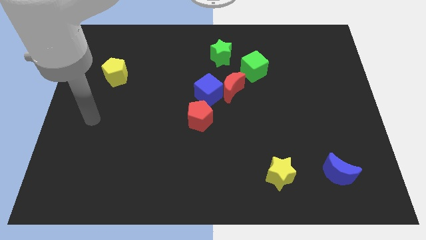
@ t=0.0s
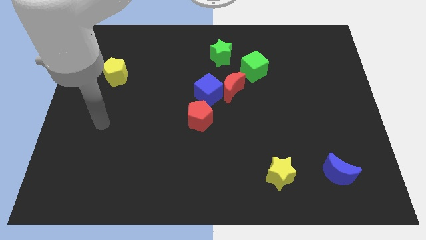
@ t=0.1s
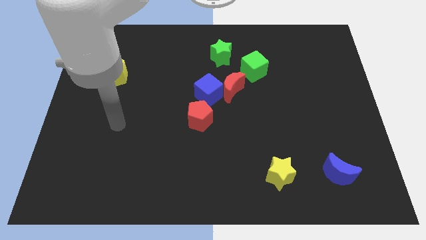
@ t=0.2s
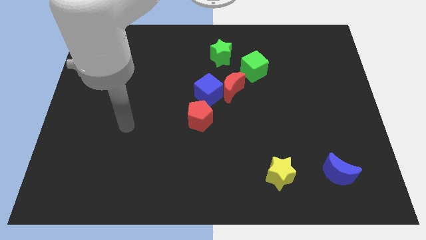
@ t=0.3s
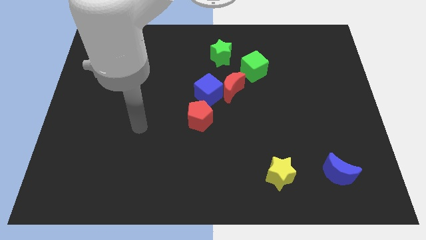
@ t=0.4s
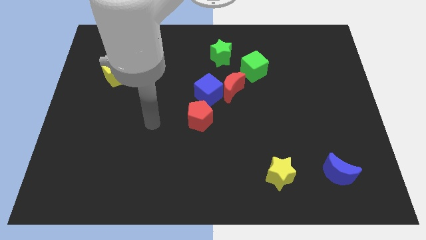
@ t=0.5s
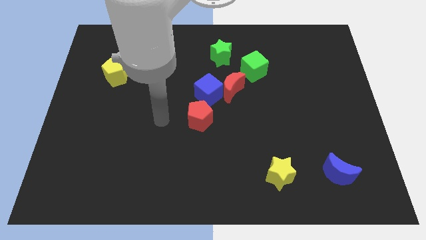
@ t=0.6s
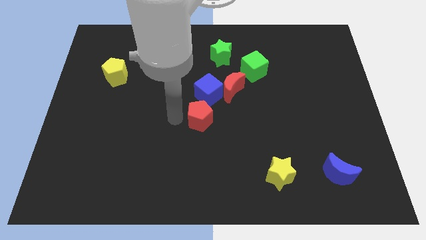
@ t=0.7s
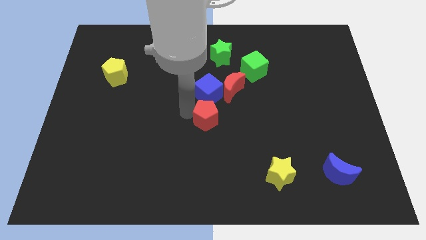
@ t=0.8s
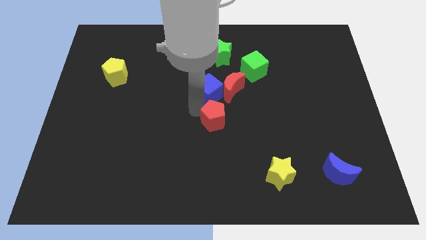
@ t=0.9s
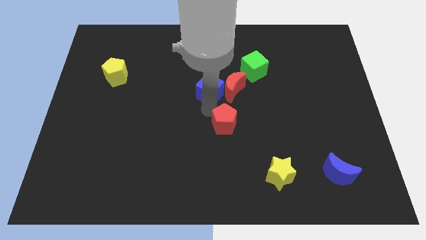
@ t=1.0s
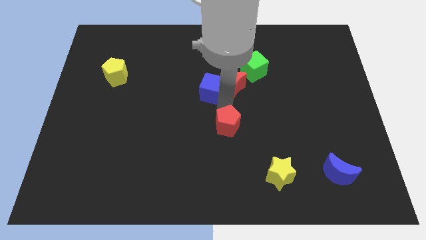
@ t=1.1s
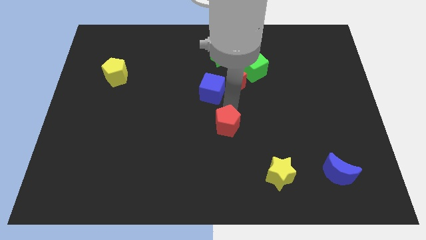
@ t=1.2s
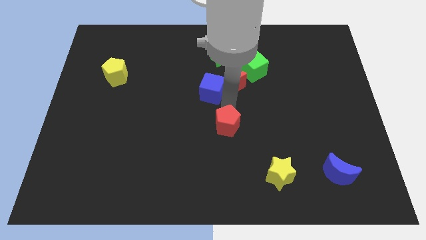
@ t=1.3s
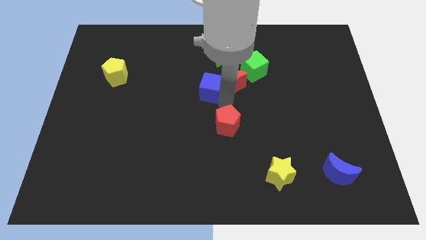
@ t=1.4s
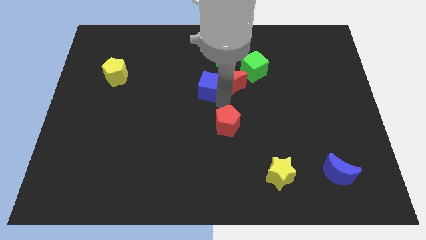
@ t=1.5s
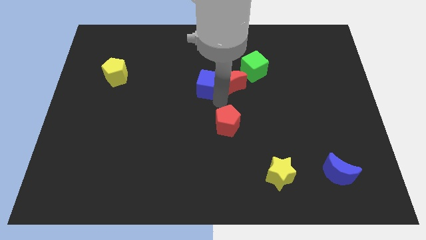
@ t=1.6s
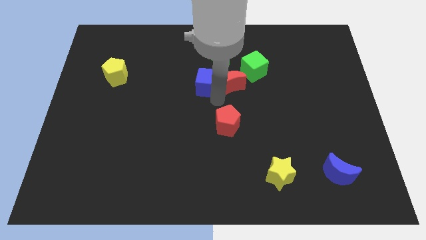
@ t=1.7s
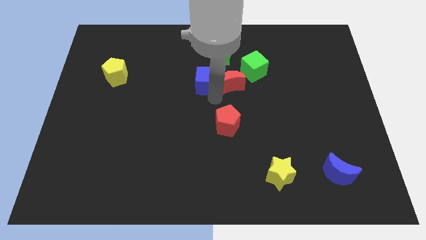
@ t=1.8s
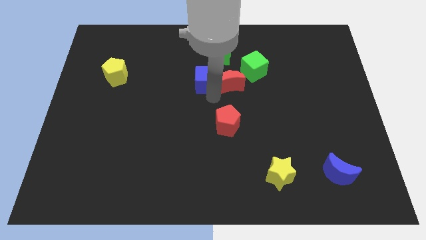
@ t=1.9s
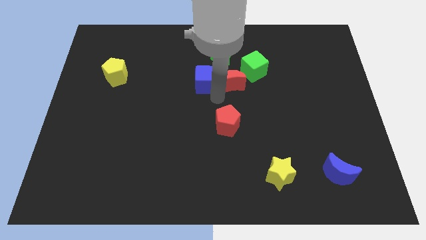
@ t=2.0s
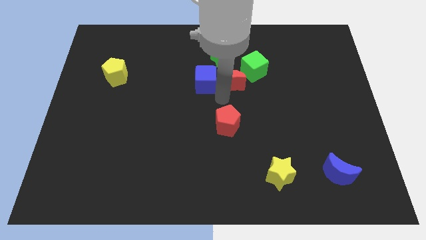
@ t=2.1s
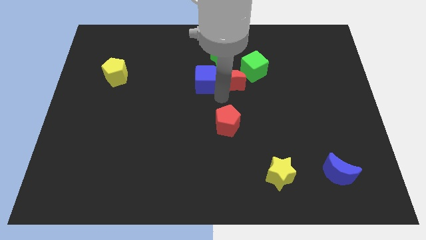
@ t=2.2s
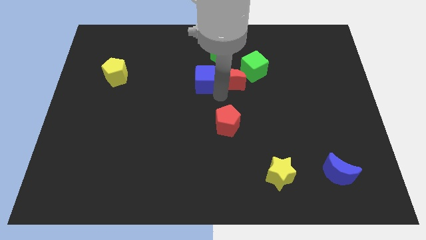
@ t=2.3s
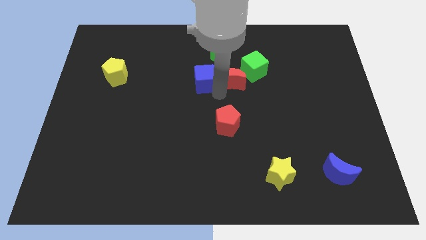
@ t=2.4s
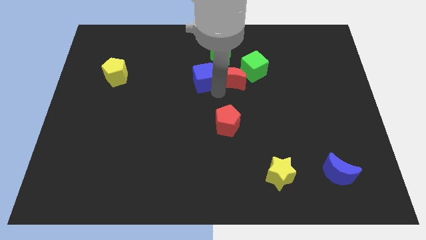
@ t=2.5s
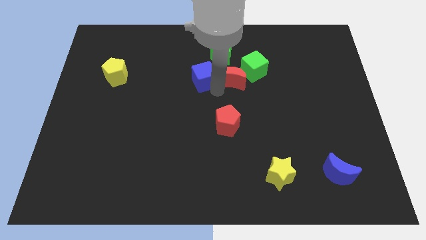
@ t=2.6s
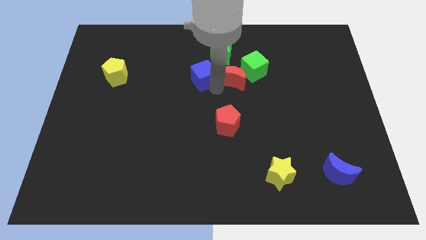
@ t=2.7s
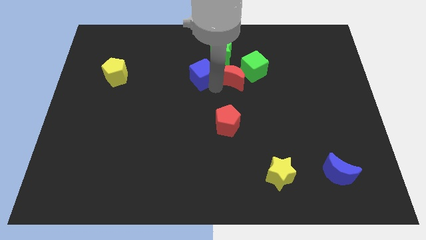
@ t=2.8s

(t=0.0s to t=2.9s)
move the blue cube away from the red moon and red pentagon

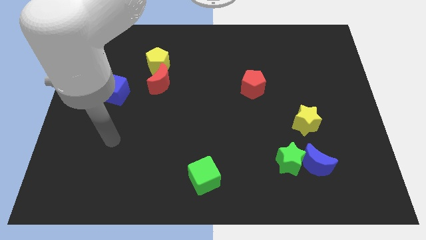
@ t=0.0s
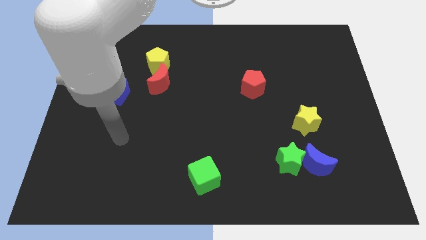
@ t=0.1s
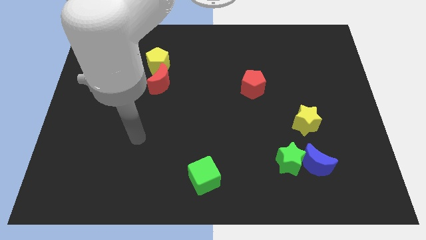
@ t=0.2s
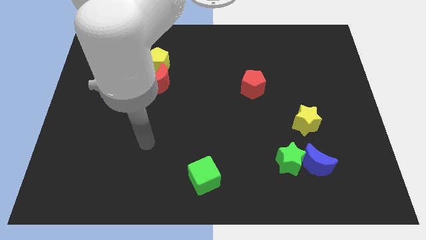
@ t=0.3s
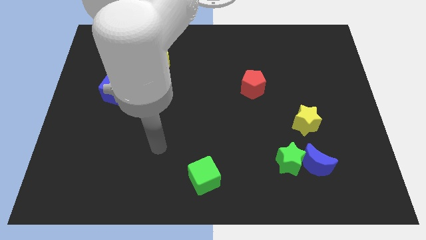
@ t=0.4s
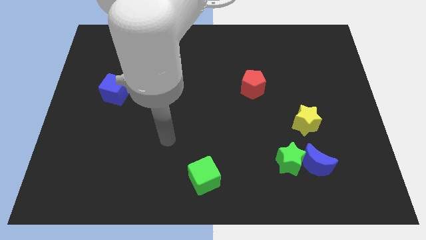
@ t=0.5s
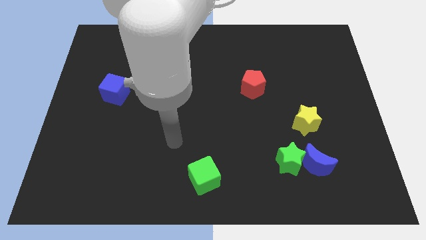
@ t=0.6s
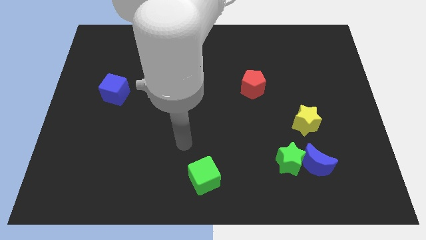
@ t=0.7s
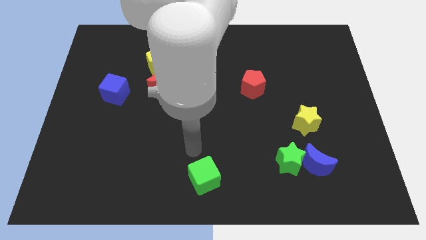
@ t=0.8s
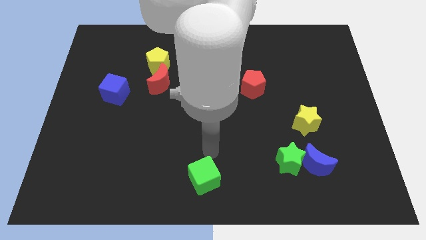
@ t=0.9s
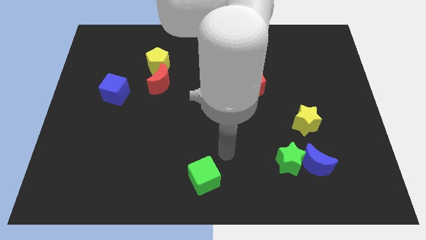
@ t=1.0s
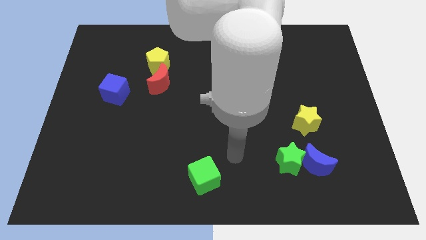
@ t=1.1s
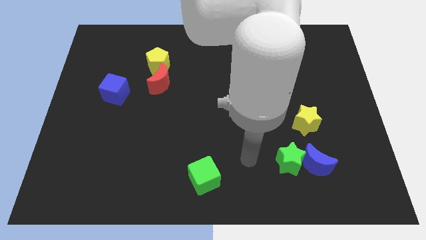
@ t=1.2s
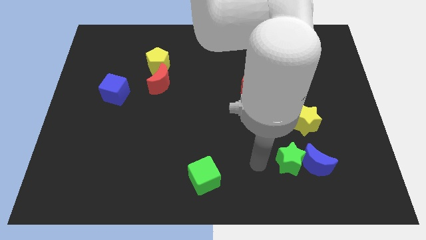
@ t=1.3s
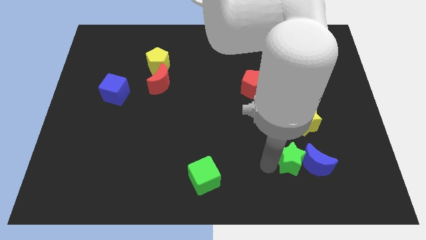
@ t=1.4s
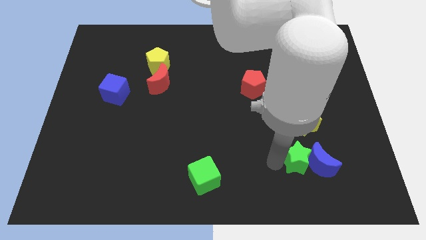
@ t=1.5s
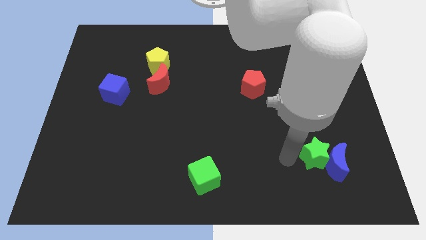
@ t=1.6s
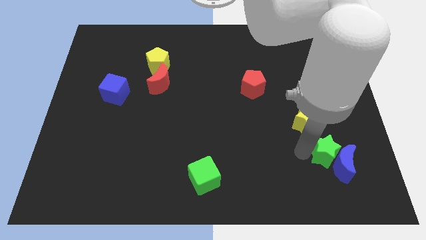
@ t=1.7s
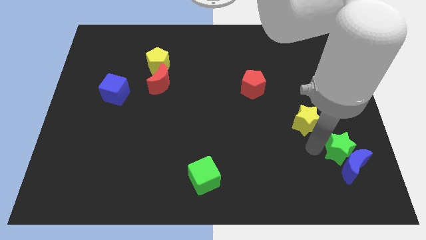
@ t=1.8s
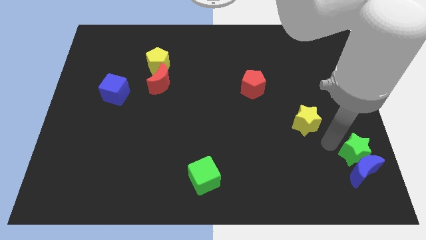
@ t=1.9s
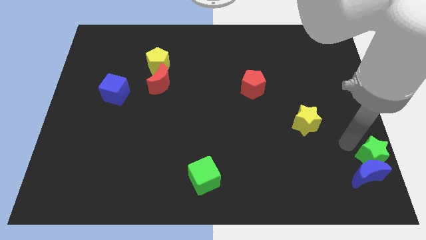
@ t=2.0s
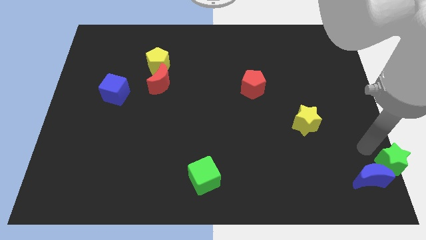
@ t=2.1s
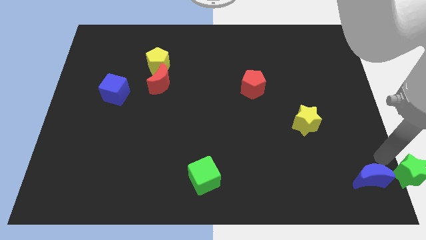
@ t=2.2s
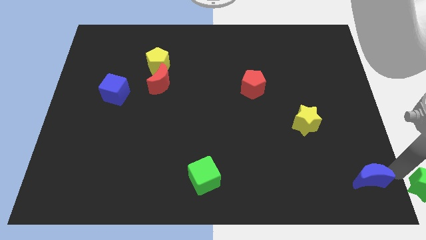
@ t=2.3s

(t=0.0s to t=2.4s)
separate the blue moon from the green star

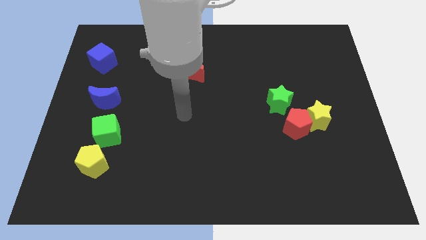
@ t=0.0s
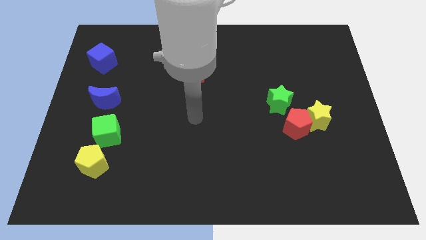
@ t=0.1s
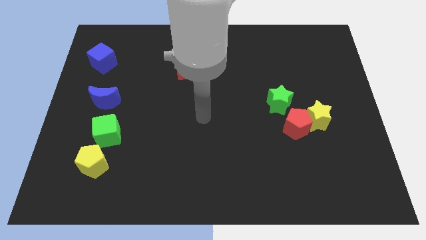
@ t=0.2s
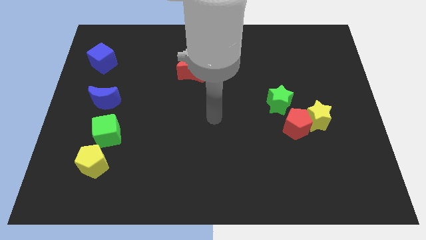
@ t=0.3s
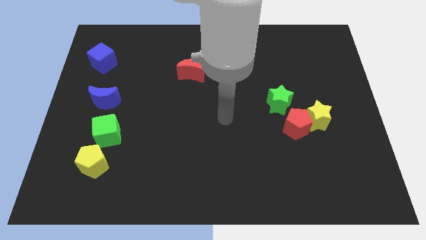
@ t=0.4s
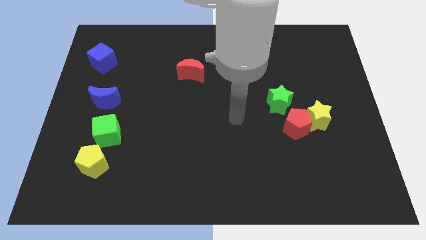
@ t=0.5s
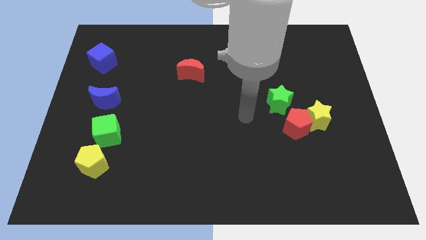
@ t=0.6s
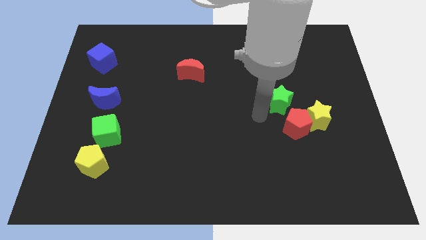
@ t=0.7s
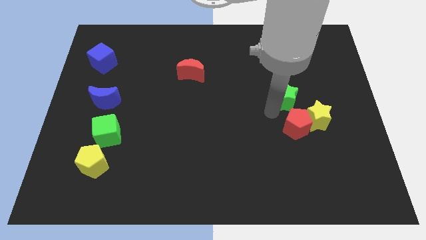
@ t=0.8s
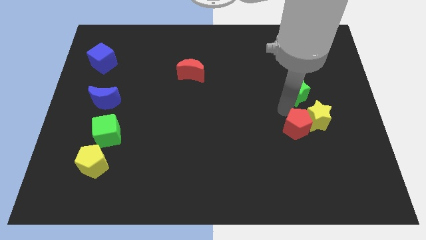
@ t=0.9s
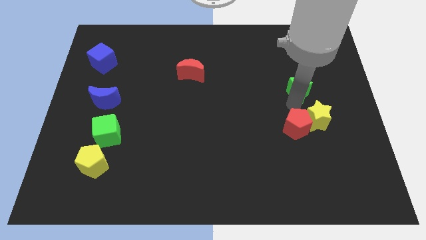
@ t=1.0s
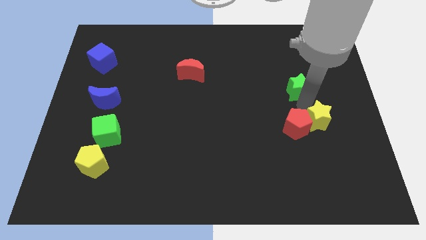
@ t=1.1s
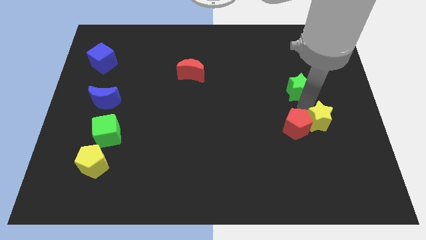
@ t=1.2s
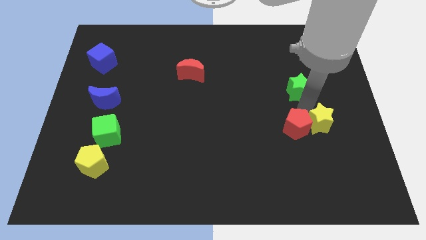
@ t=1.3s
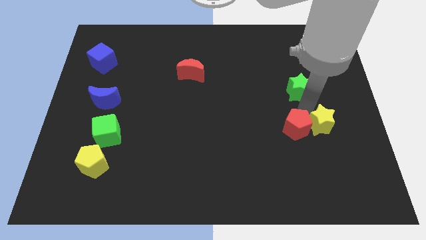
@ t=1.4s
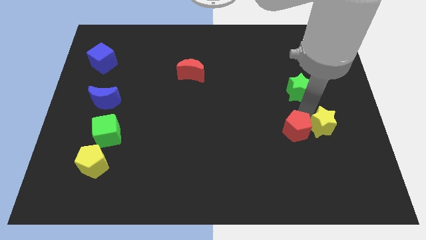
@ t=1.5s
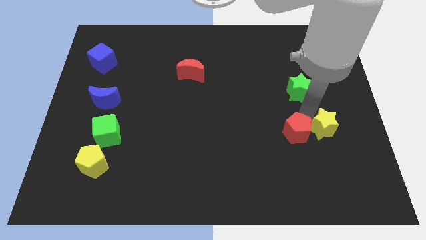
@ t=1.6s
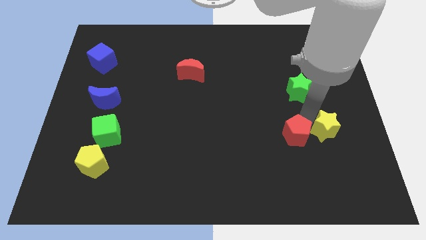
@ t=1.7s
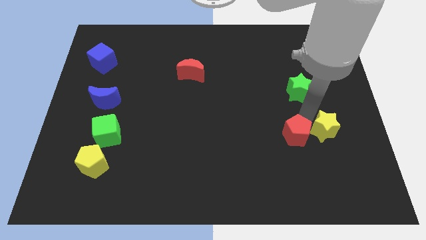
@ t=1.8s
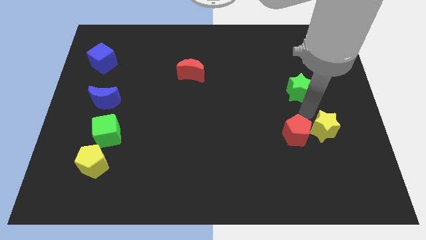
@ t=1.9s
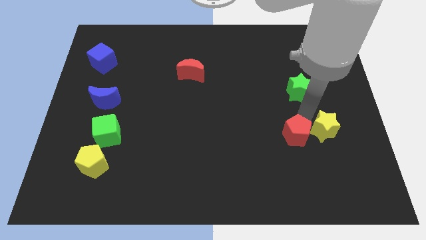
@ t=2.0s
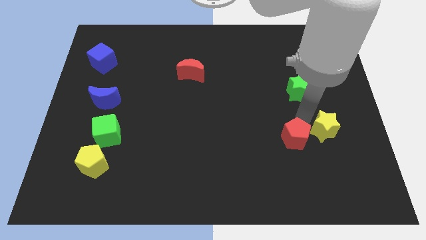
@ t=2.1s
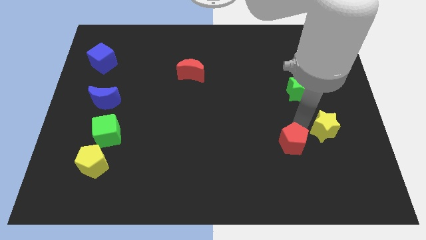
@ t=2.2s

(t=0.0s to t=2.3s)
pull the red pentagon apart from the yellow star and green star

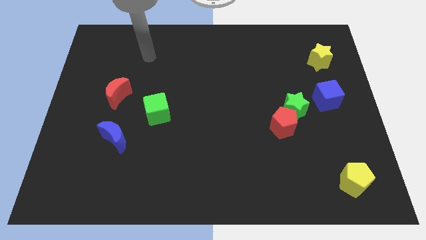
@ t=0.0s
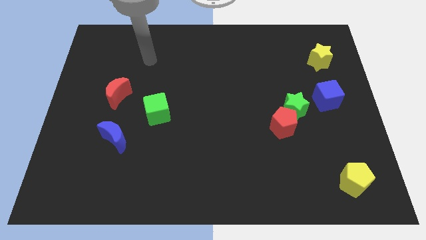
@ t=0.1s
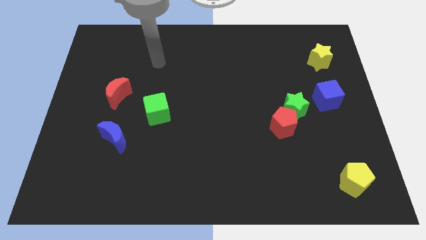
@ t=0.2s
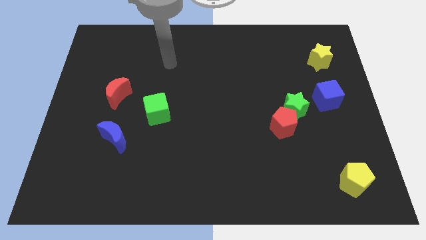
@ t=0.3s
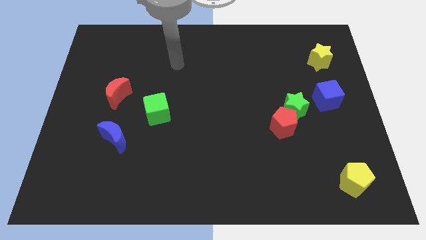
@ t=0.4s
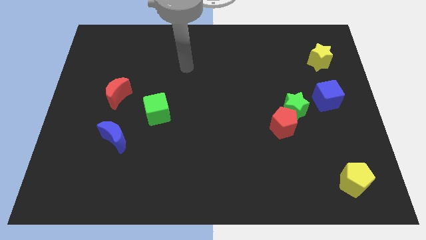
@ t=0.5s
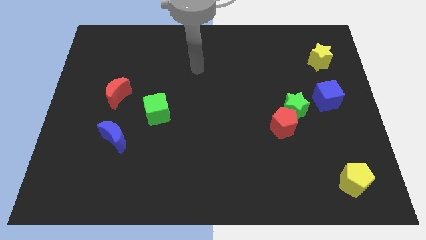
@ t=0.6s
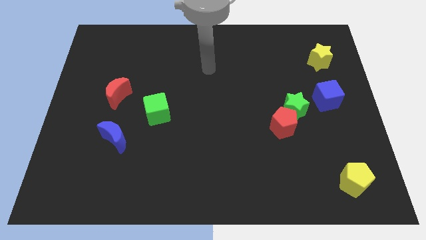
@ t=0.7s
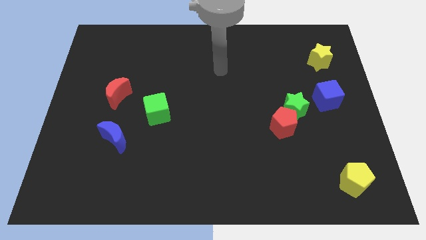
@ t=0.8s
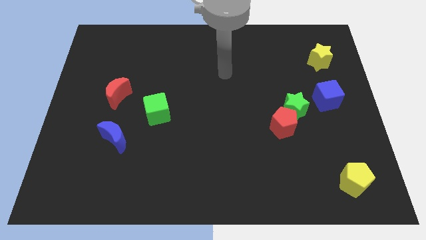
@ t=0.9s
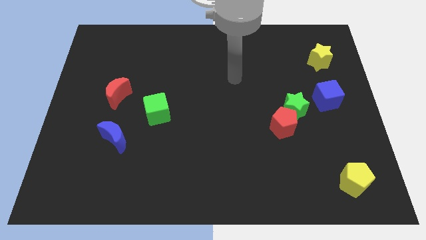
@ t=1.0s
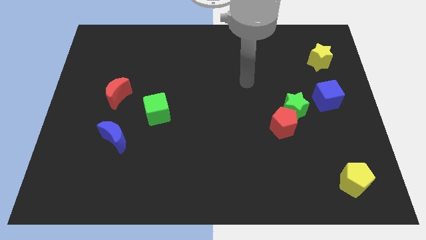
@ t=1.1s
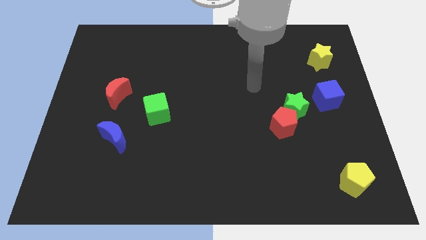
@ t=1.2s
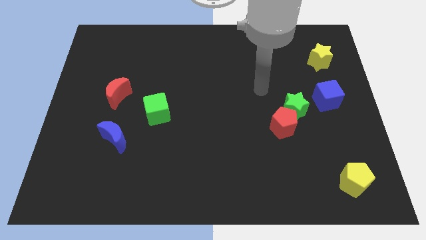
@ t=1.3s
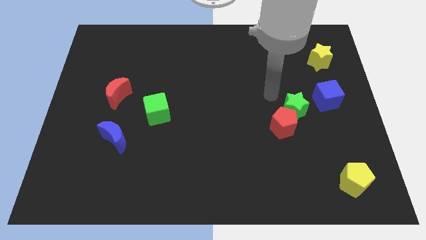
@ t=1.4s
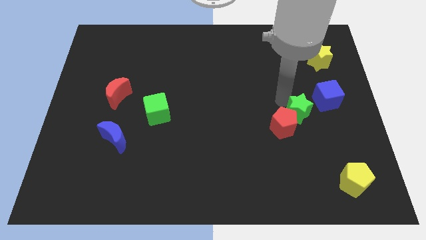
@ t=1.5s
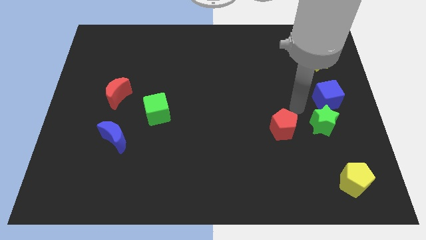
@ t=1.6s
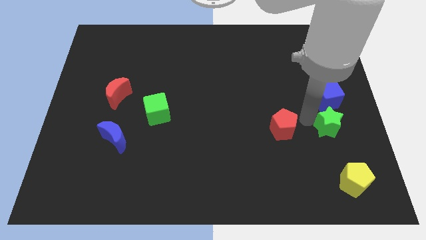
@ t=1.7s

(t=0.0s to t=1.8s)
pull the red pentagon apart from the green star

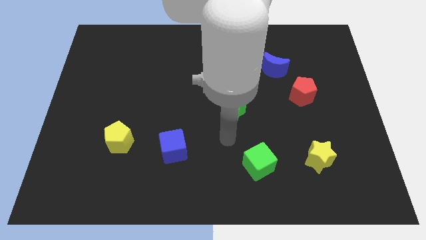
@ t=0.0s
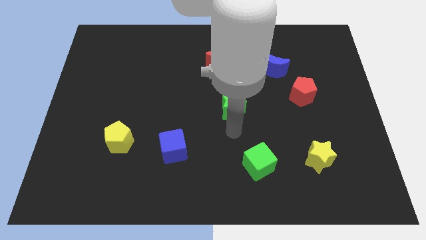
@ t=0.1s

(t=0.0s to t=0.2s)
move the red pentagon away from the blue moon
